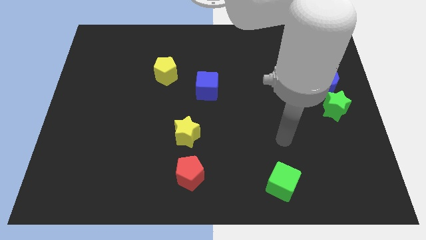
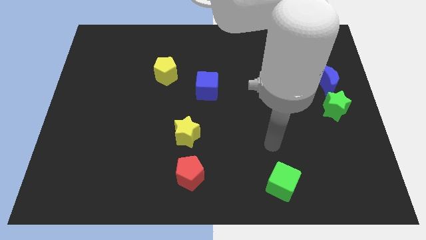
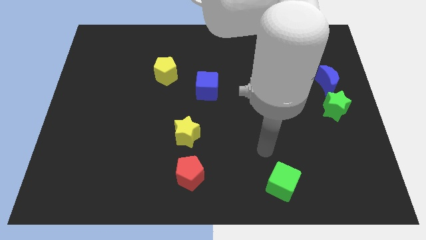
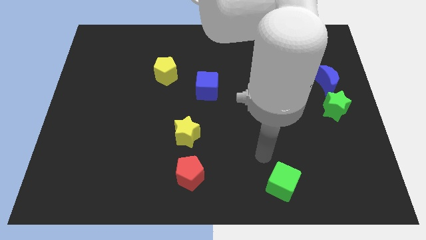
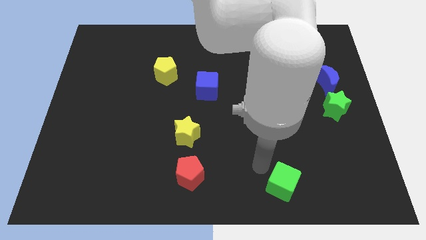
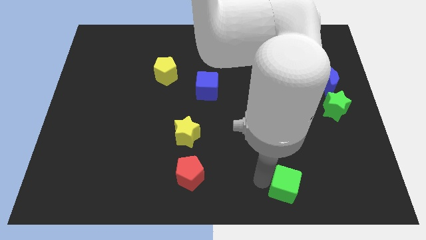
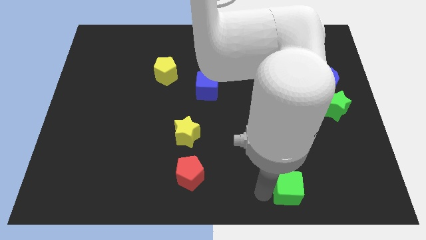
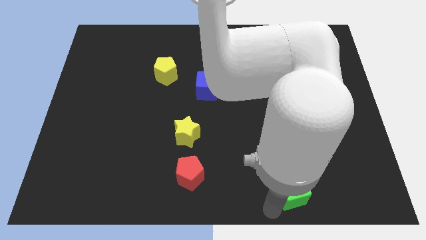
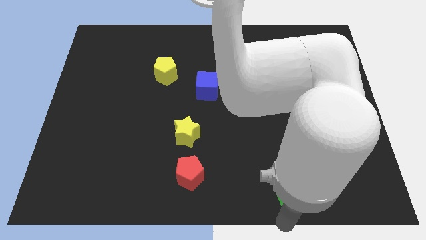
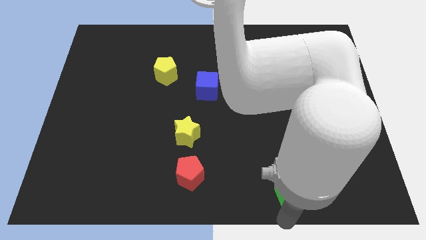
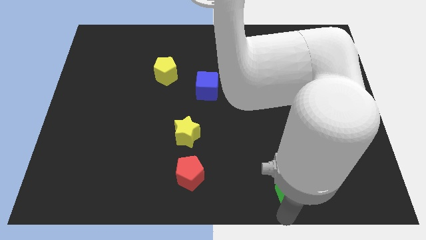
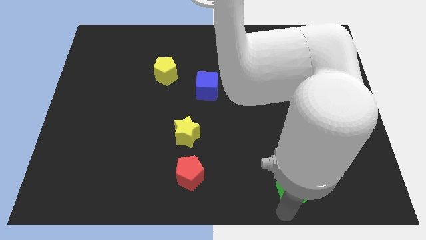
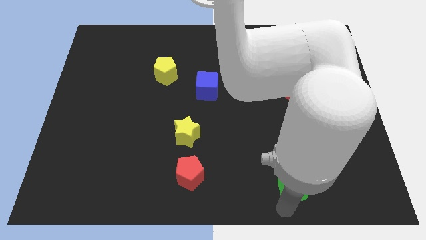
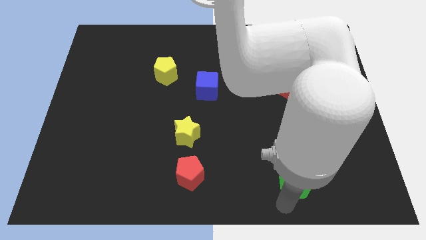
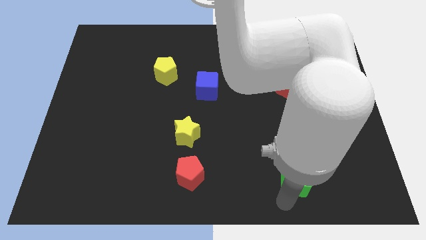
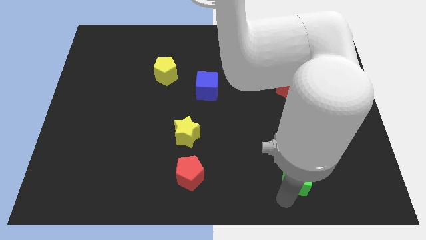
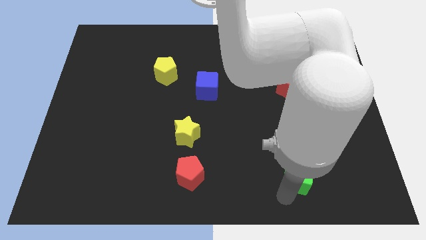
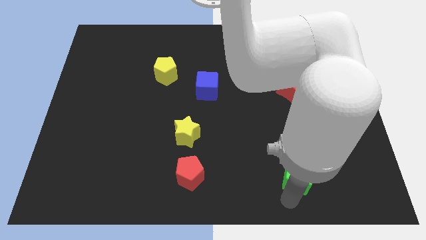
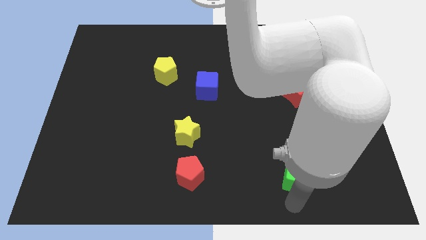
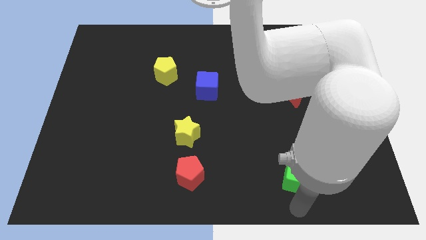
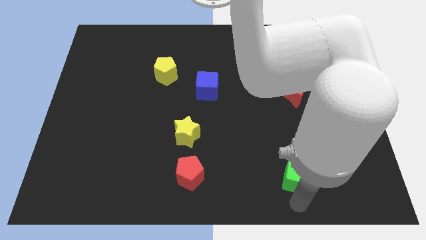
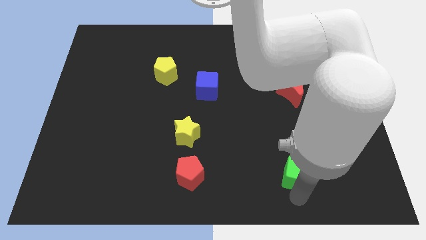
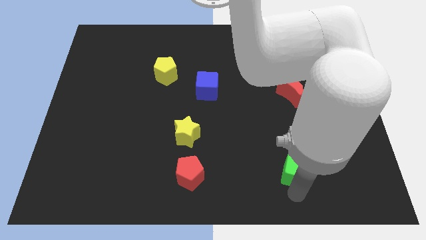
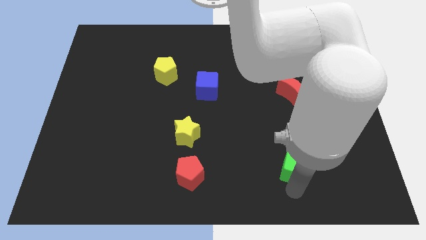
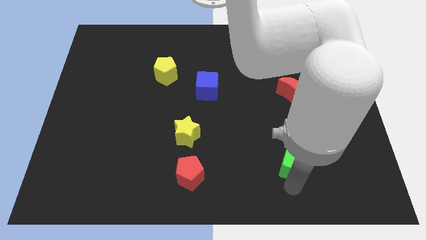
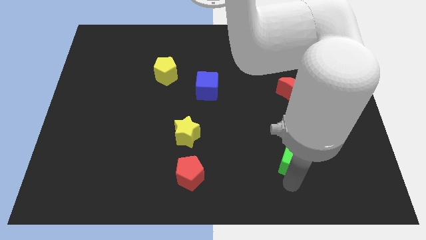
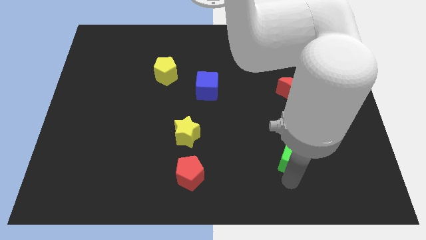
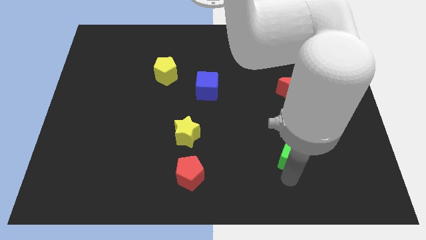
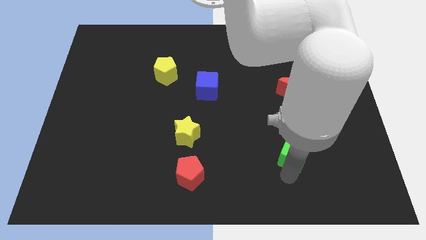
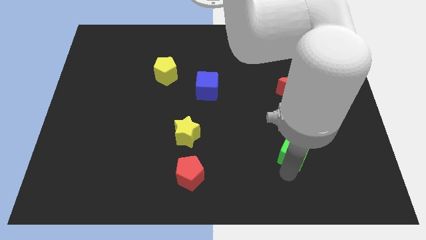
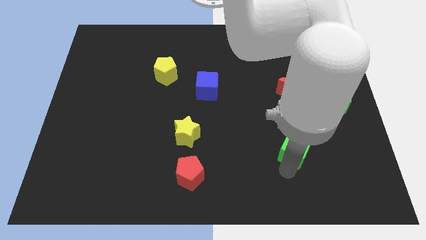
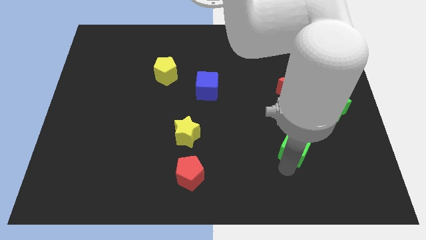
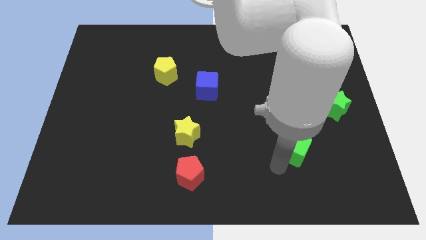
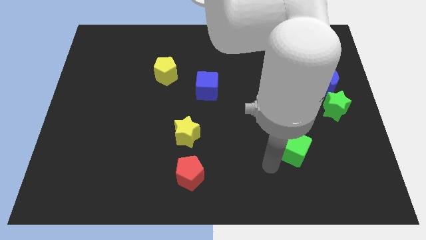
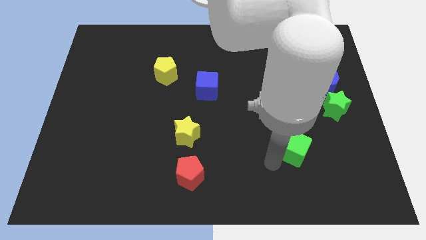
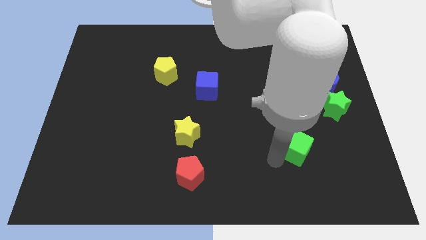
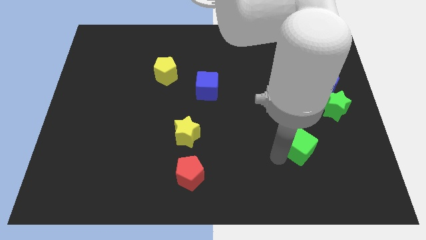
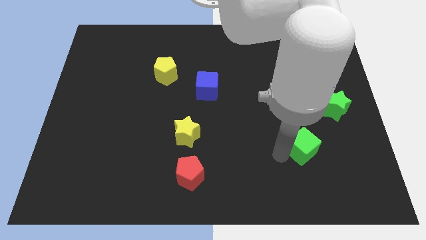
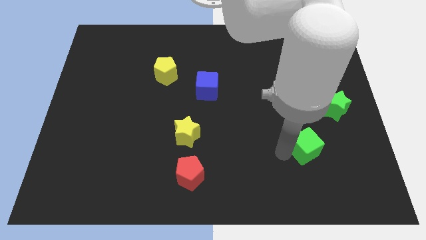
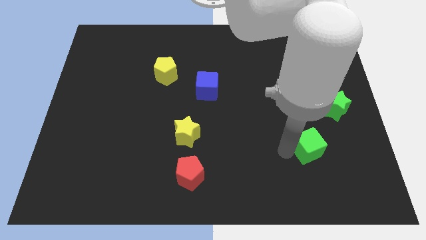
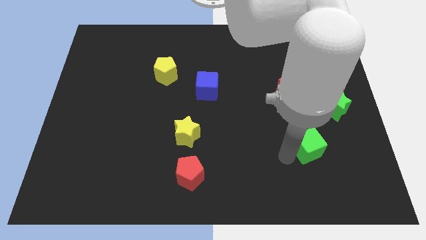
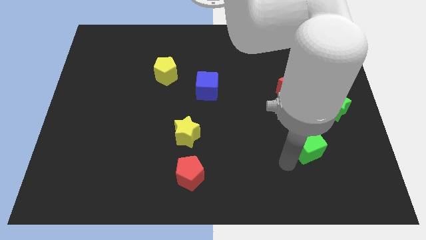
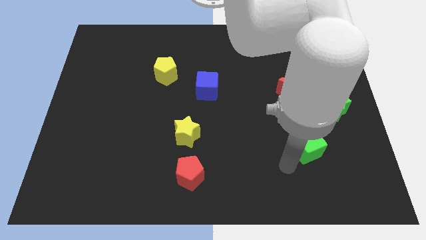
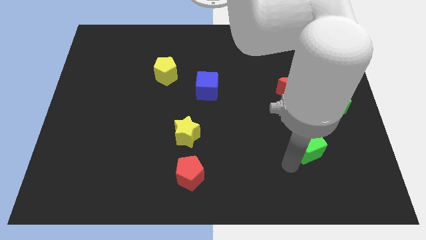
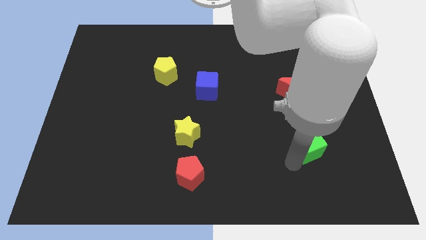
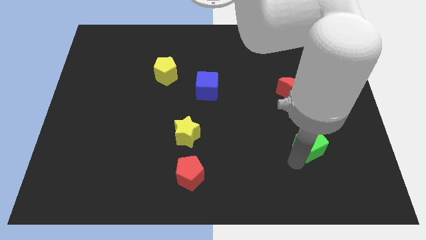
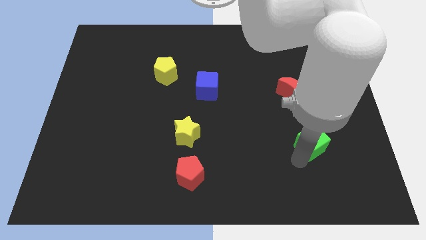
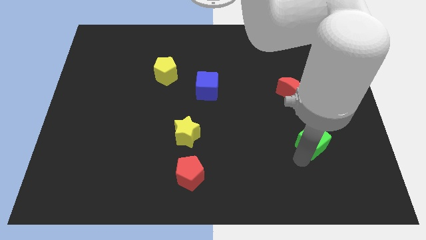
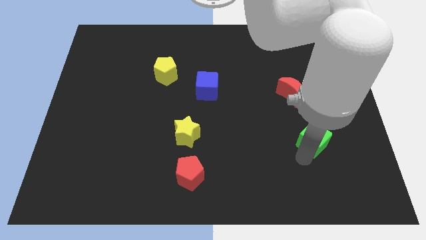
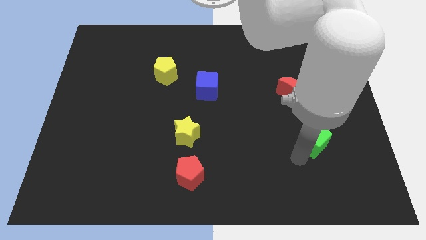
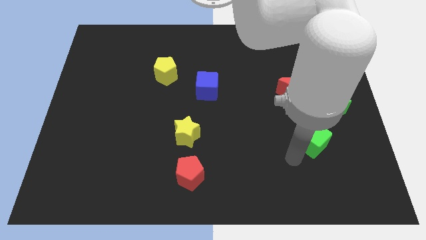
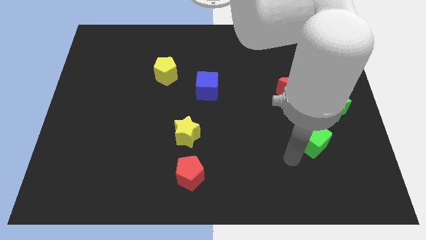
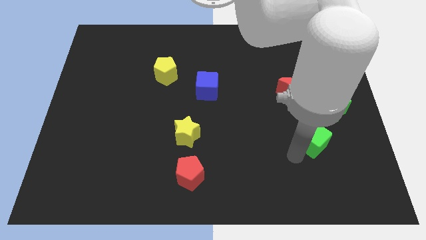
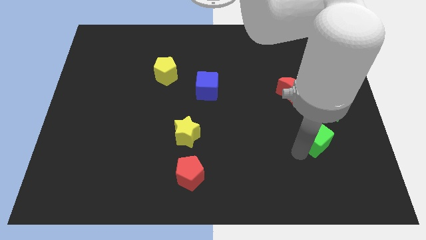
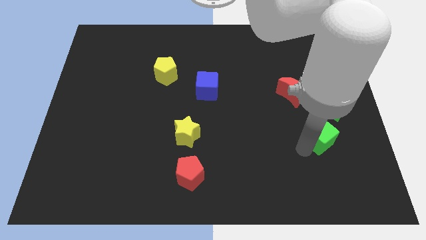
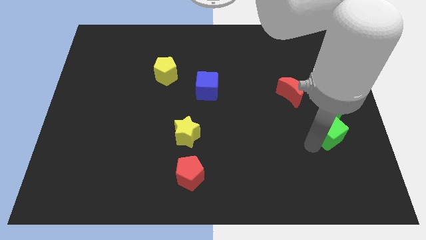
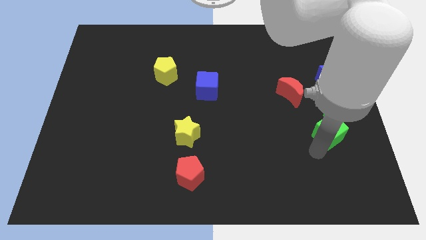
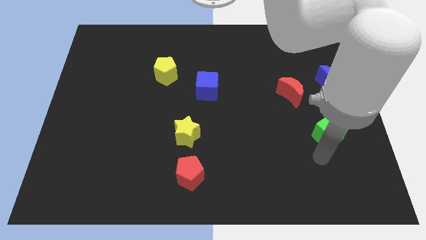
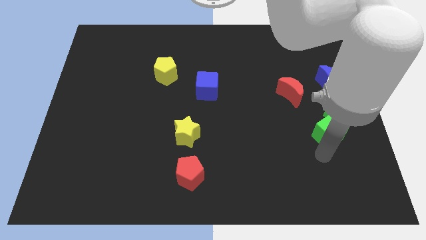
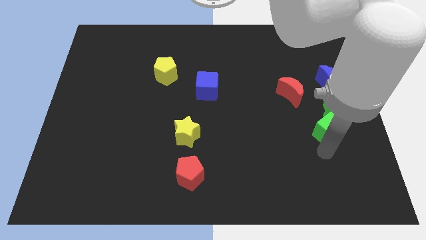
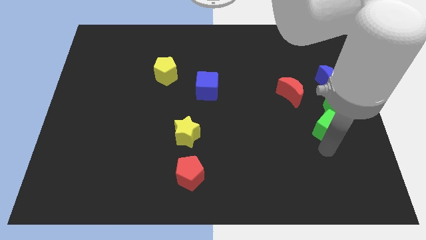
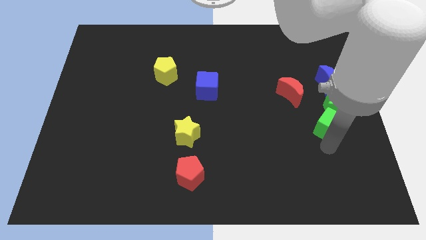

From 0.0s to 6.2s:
move the green cube towards the green star

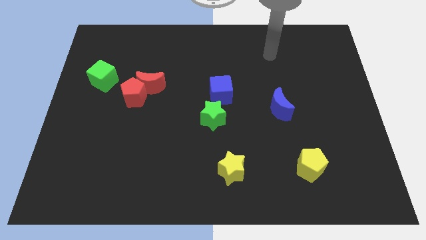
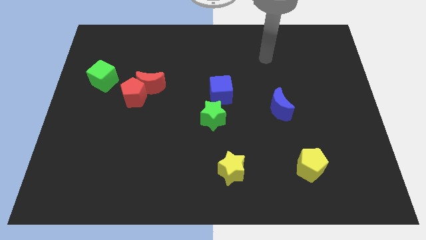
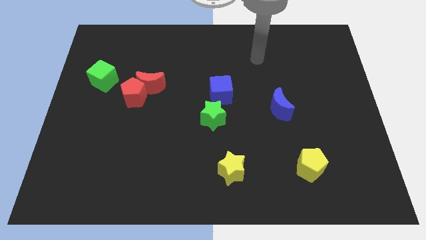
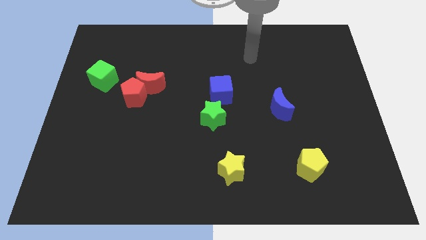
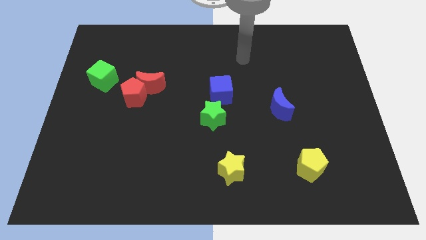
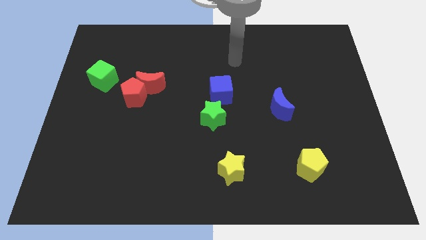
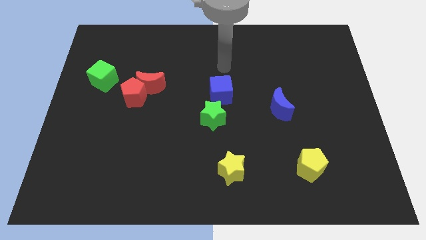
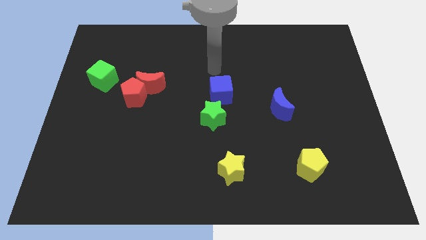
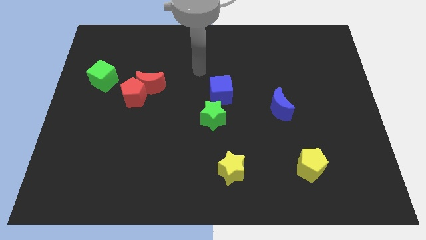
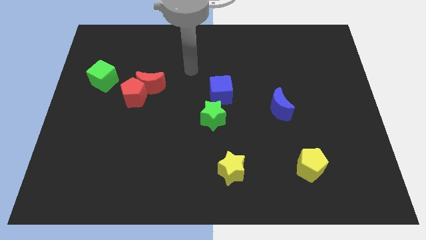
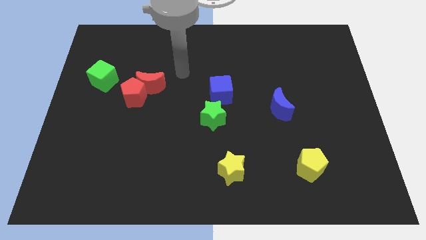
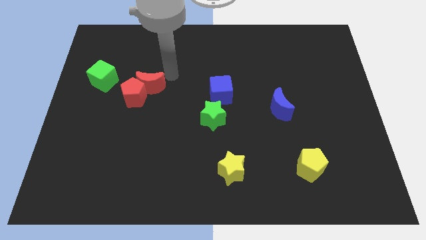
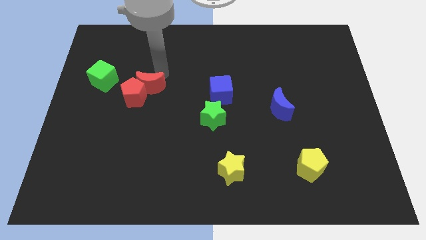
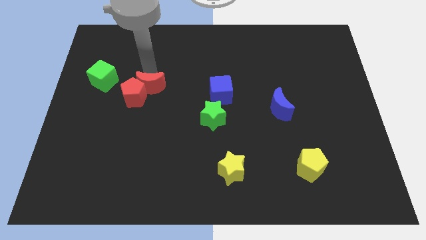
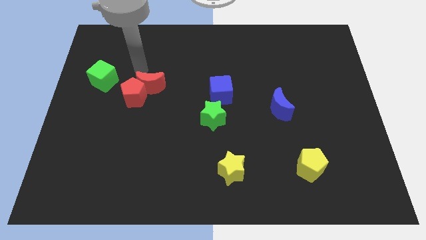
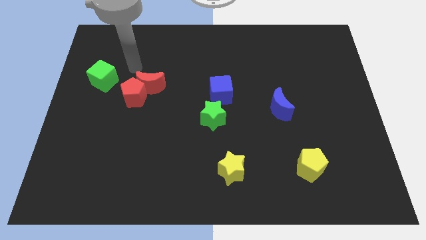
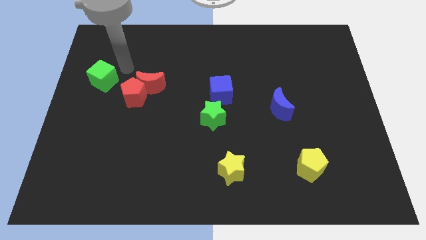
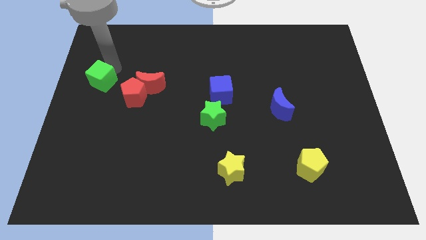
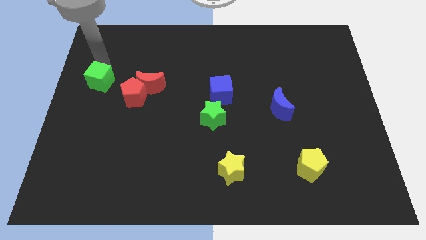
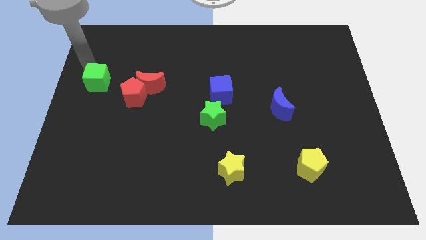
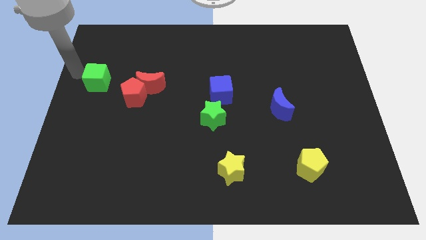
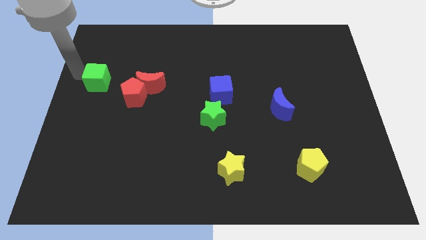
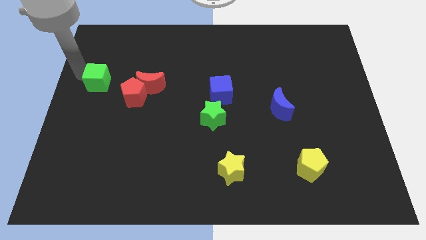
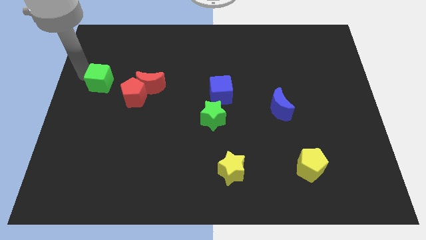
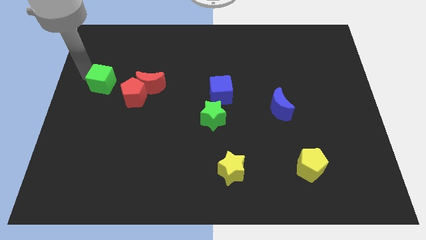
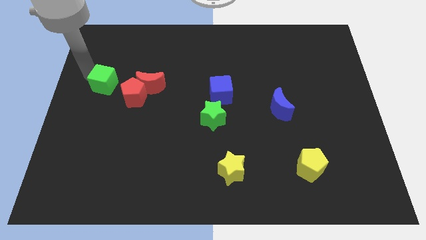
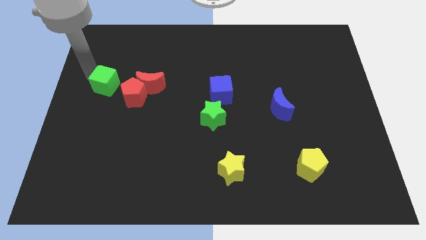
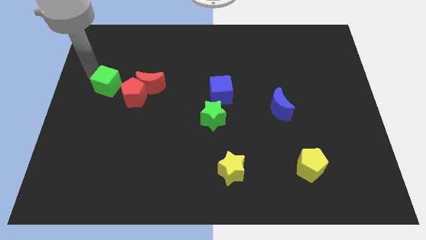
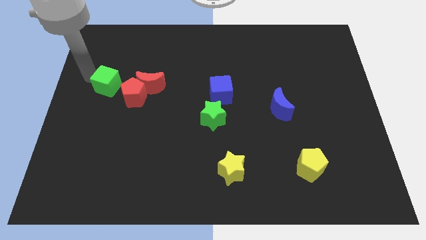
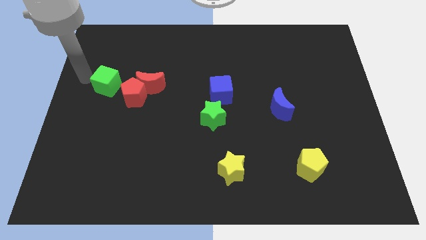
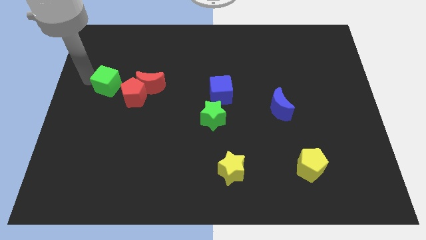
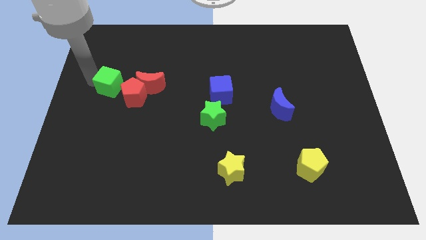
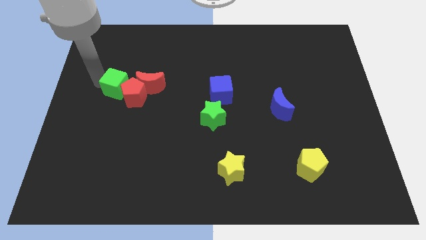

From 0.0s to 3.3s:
slide the green cube to the red pentagon
